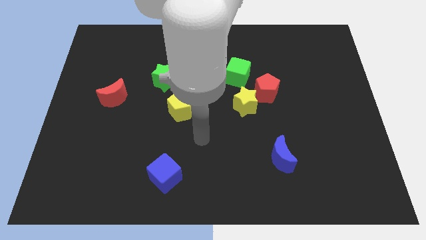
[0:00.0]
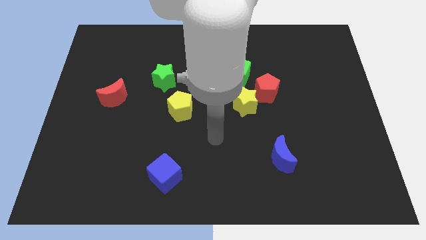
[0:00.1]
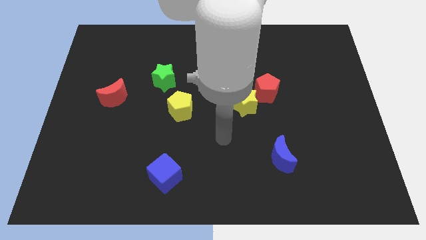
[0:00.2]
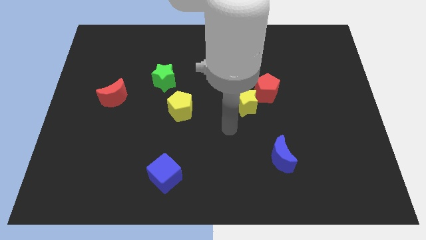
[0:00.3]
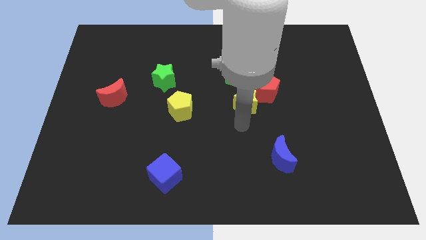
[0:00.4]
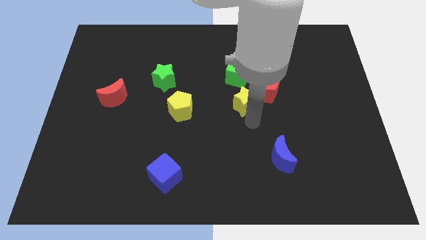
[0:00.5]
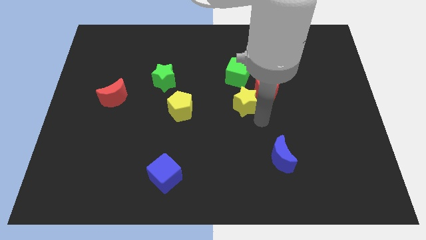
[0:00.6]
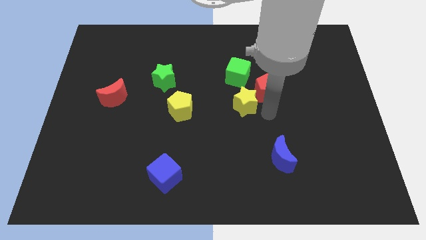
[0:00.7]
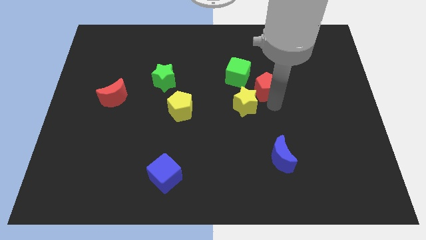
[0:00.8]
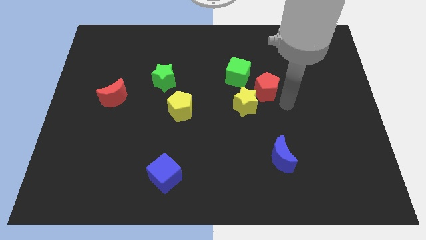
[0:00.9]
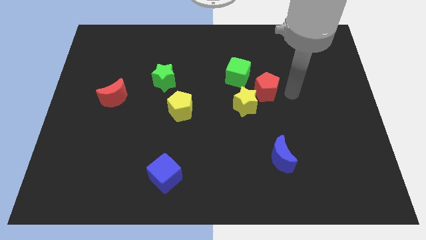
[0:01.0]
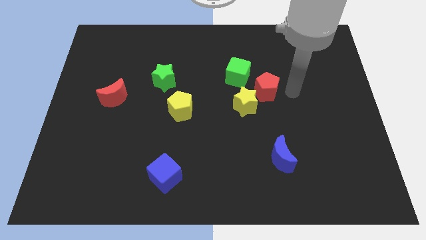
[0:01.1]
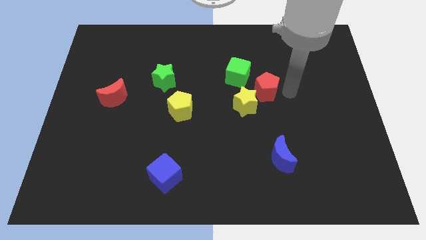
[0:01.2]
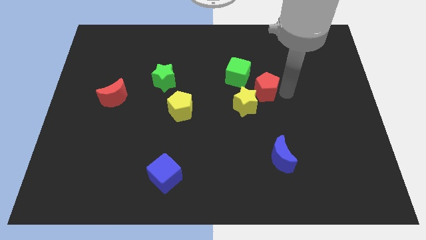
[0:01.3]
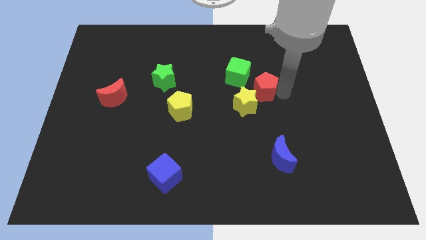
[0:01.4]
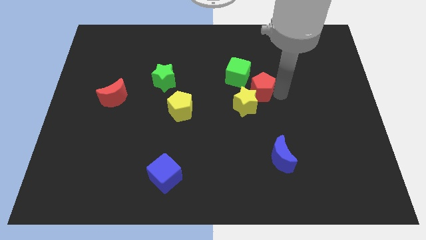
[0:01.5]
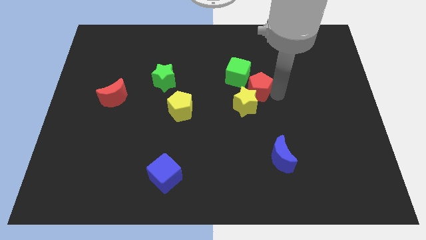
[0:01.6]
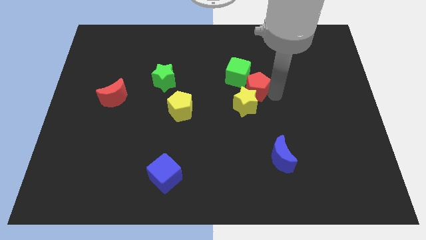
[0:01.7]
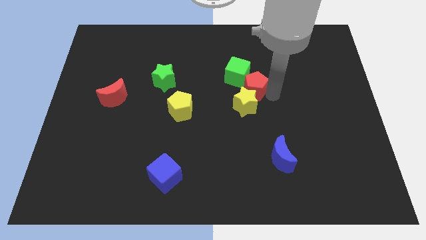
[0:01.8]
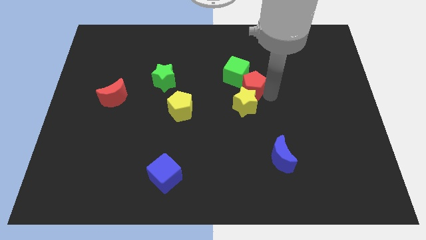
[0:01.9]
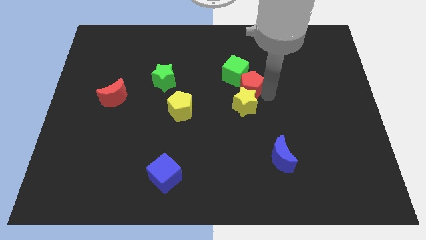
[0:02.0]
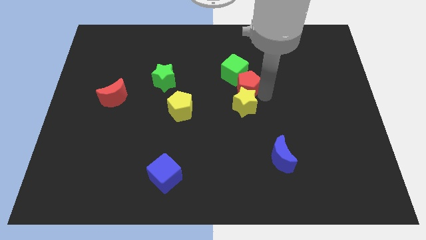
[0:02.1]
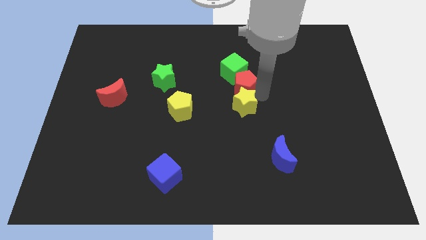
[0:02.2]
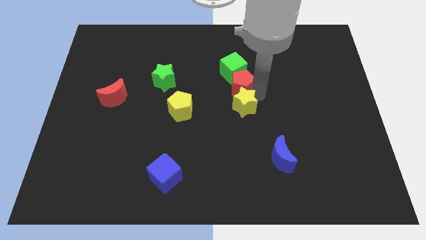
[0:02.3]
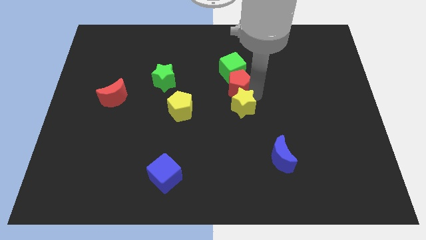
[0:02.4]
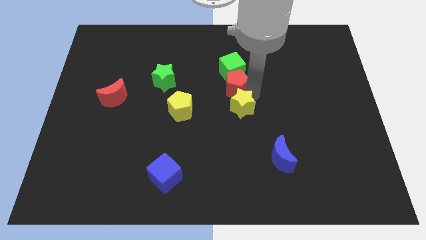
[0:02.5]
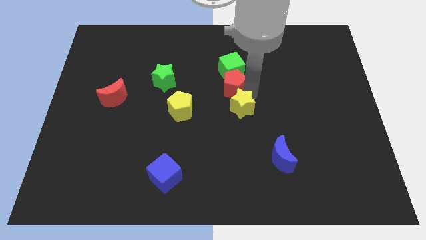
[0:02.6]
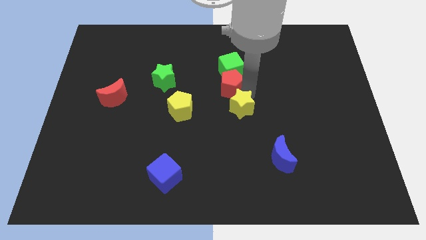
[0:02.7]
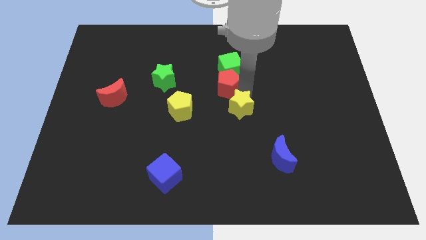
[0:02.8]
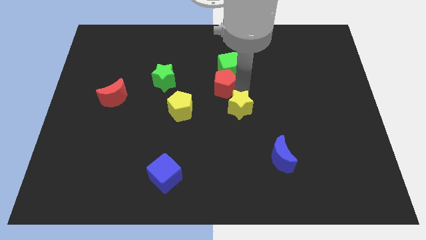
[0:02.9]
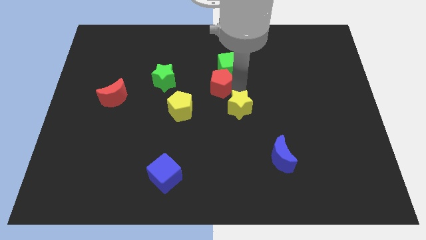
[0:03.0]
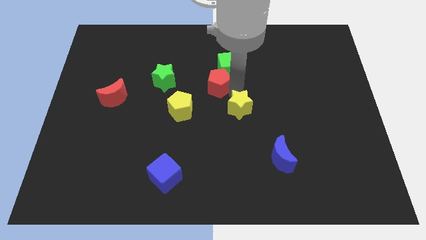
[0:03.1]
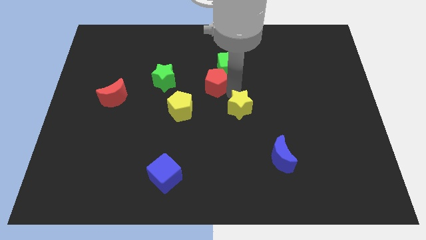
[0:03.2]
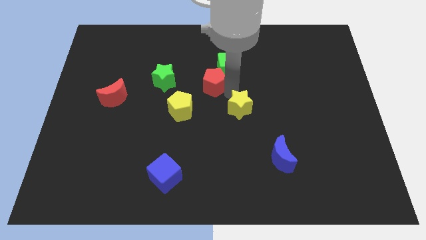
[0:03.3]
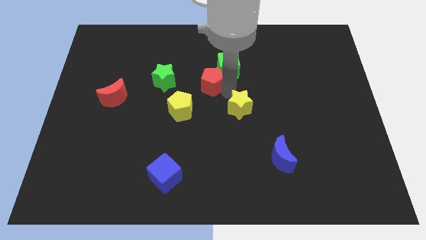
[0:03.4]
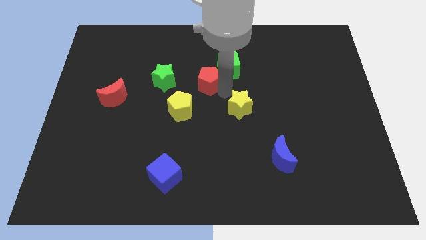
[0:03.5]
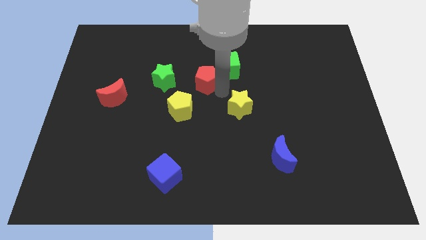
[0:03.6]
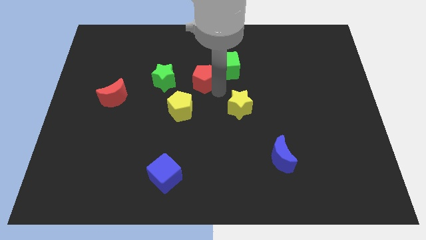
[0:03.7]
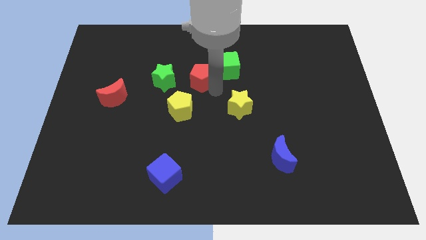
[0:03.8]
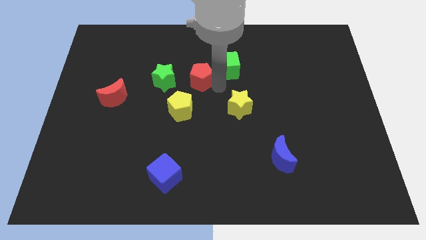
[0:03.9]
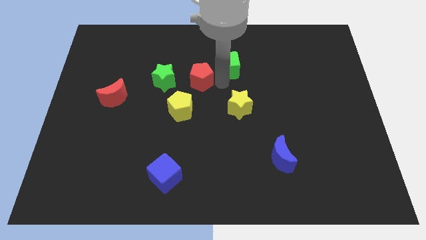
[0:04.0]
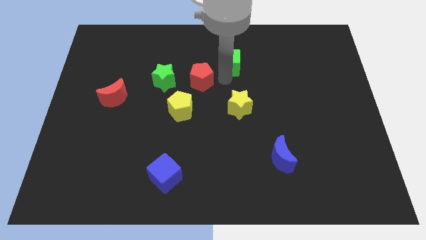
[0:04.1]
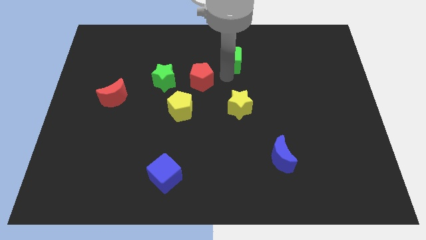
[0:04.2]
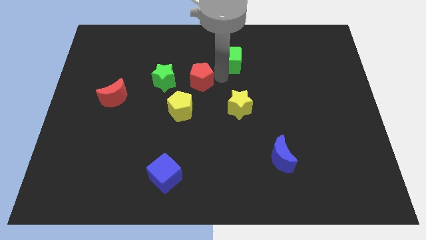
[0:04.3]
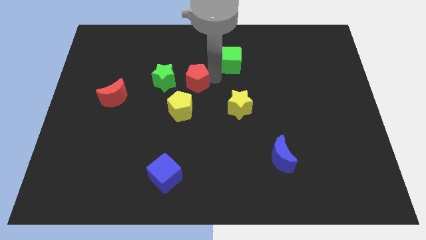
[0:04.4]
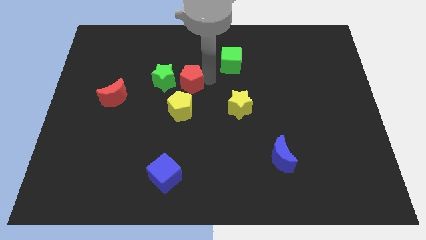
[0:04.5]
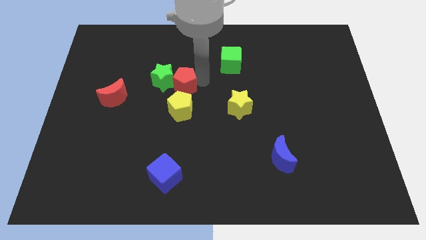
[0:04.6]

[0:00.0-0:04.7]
put the red pentagon to the green star

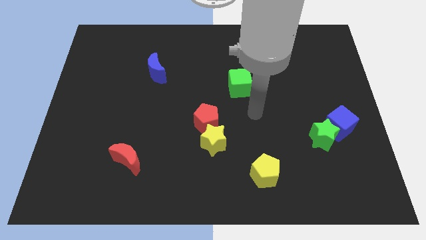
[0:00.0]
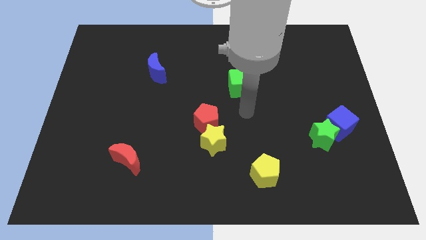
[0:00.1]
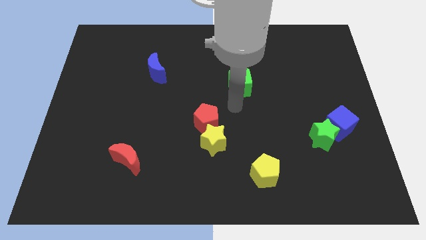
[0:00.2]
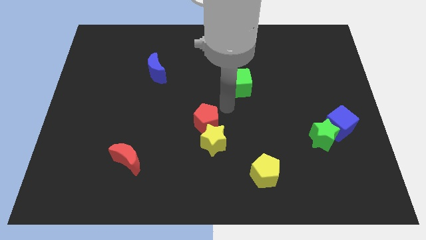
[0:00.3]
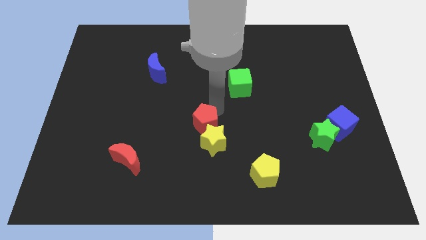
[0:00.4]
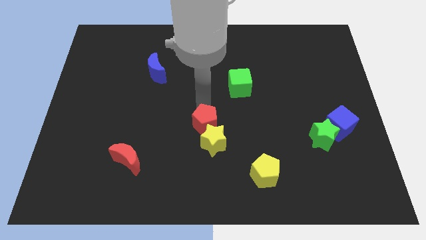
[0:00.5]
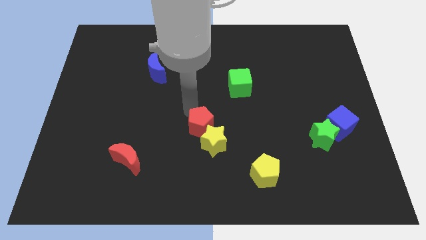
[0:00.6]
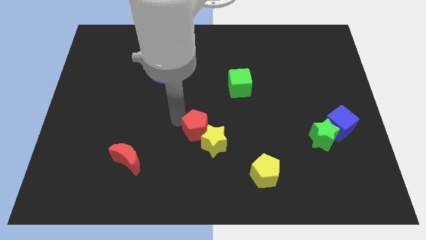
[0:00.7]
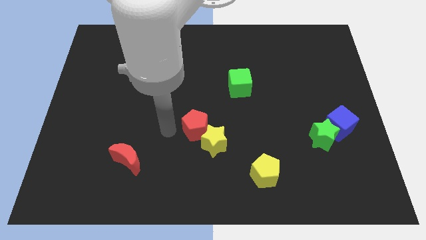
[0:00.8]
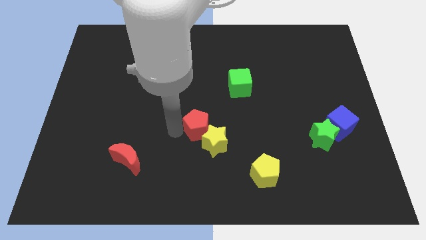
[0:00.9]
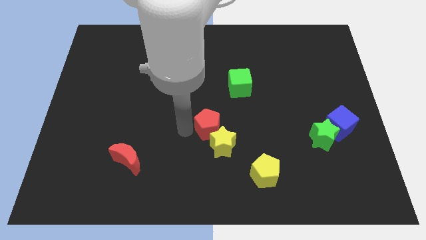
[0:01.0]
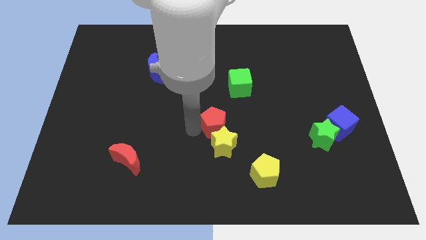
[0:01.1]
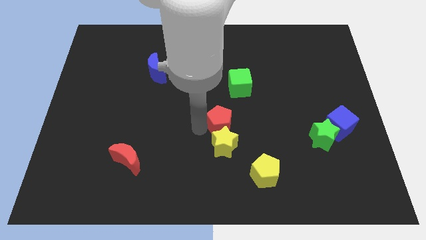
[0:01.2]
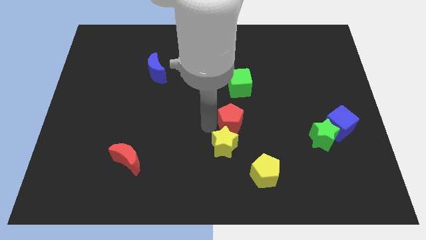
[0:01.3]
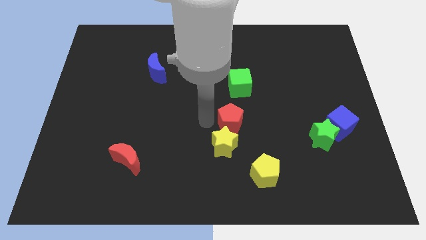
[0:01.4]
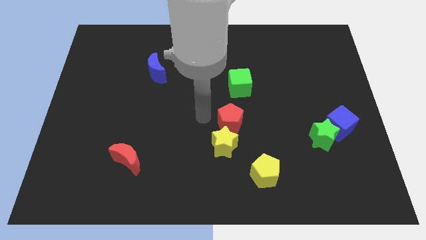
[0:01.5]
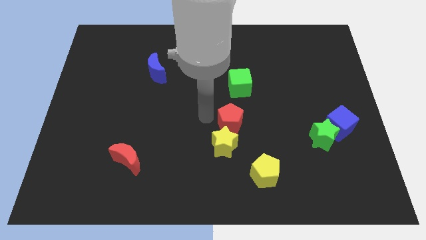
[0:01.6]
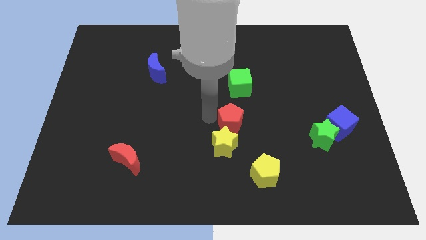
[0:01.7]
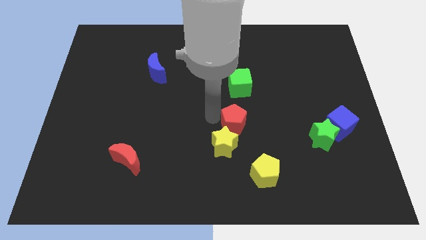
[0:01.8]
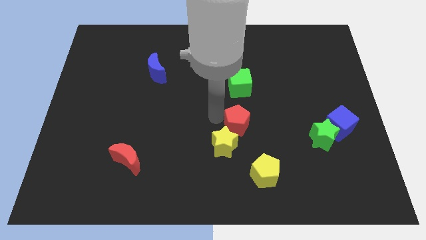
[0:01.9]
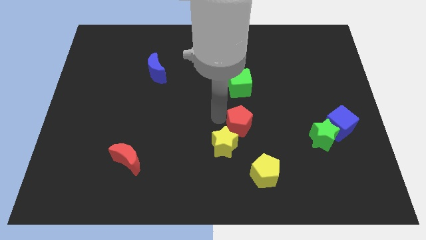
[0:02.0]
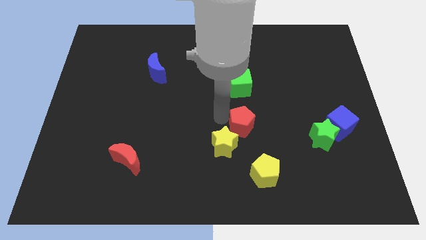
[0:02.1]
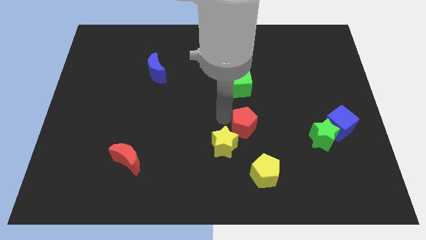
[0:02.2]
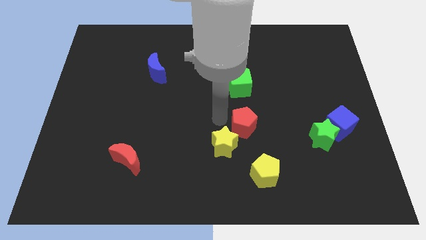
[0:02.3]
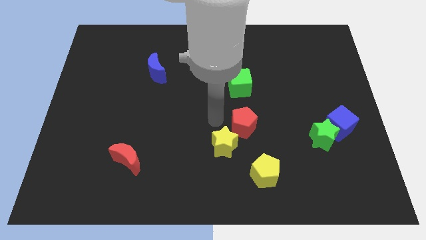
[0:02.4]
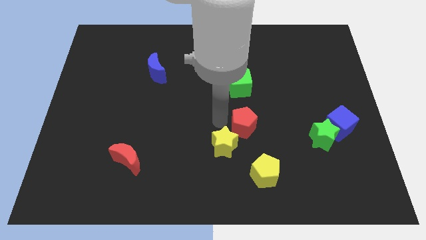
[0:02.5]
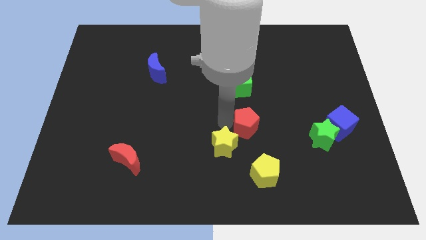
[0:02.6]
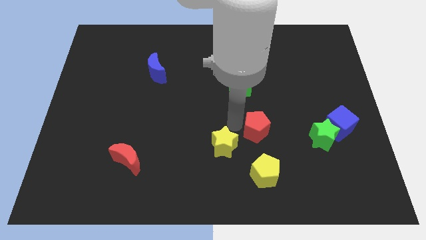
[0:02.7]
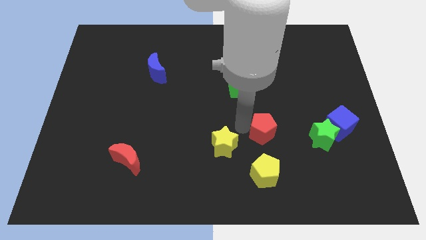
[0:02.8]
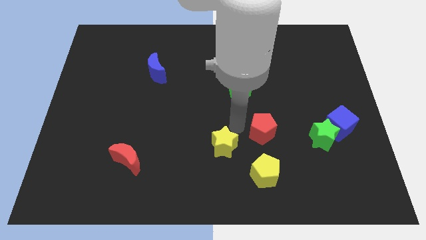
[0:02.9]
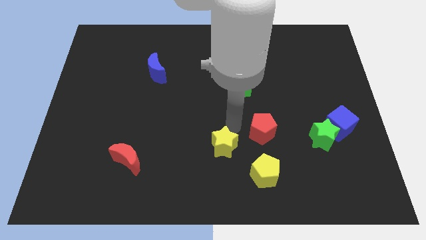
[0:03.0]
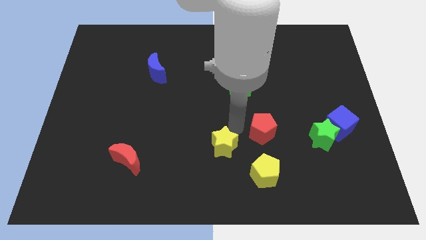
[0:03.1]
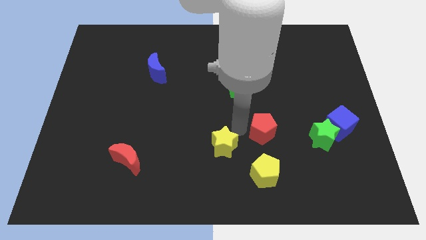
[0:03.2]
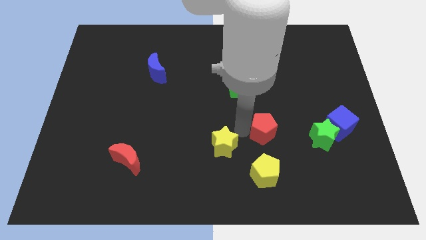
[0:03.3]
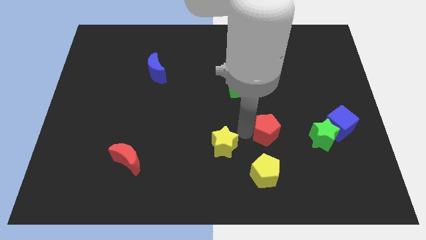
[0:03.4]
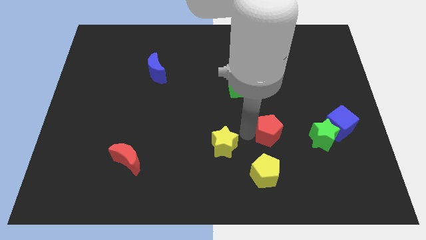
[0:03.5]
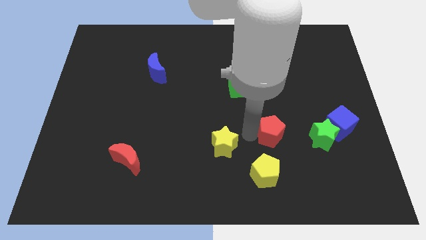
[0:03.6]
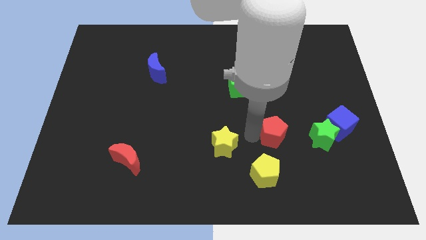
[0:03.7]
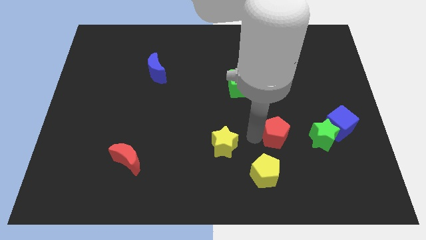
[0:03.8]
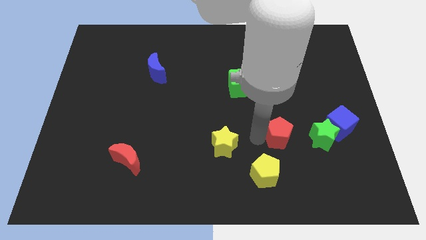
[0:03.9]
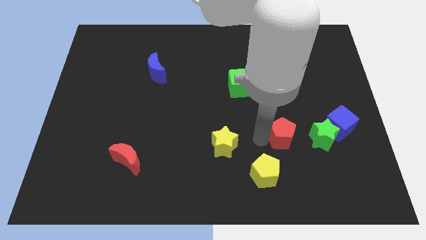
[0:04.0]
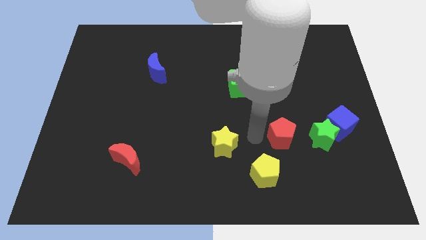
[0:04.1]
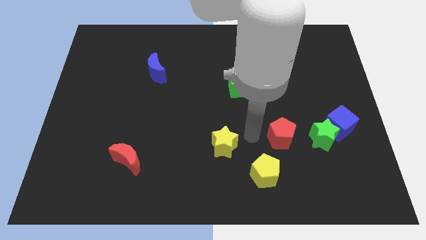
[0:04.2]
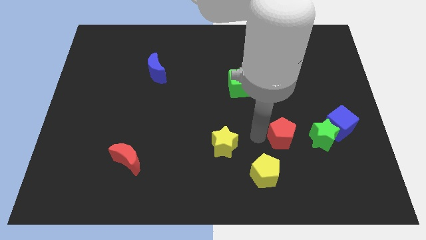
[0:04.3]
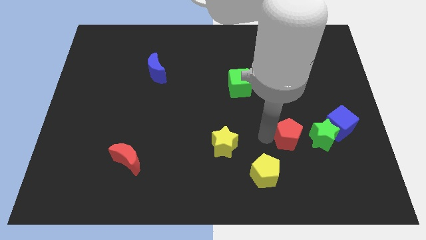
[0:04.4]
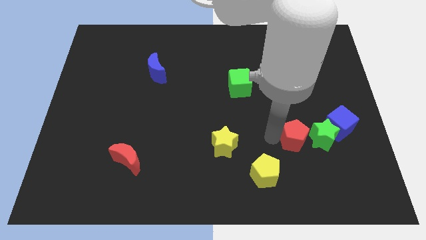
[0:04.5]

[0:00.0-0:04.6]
move the red pentagon close to the green star
